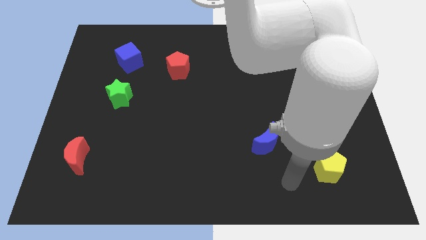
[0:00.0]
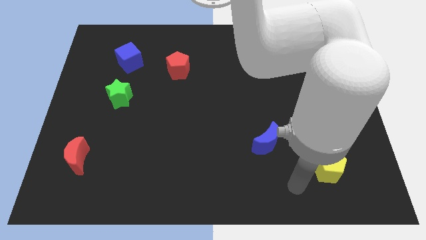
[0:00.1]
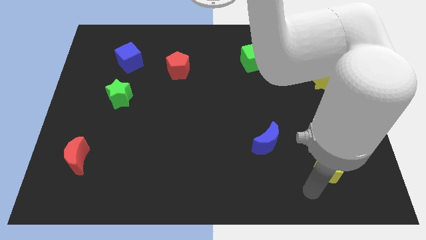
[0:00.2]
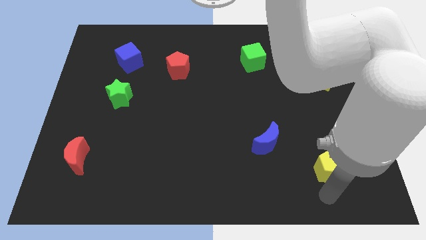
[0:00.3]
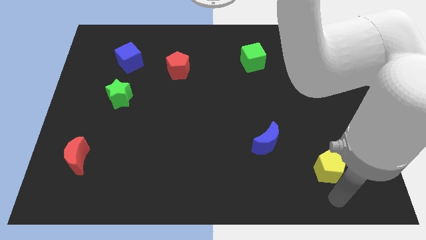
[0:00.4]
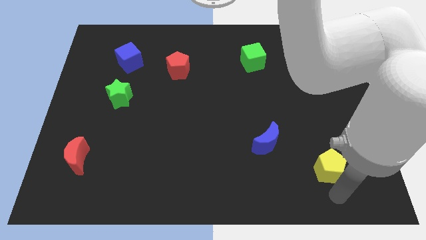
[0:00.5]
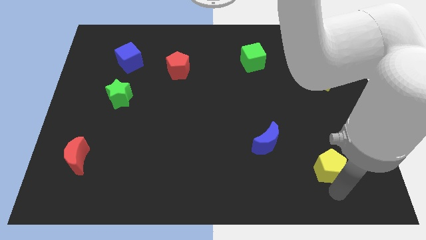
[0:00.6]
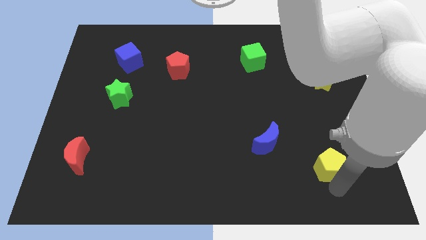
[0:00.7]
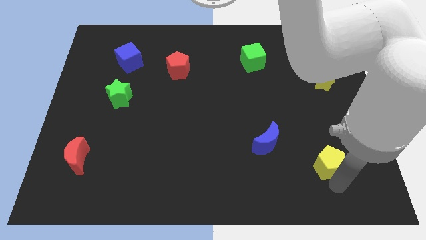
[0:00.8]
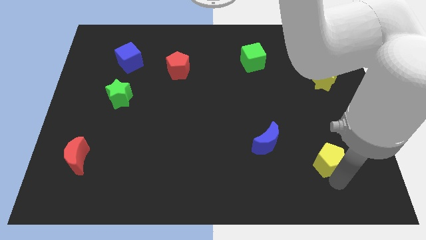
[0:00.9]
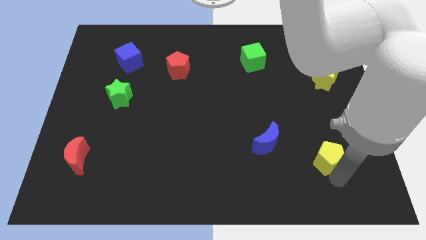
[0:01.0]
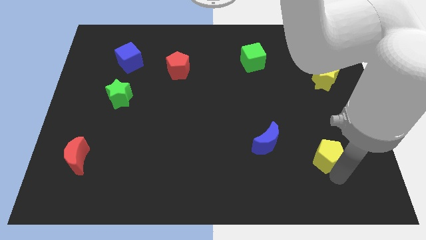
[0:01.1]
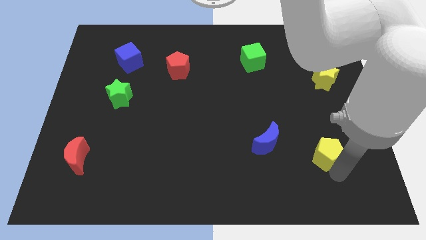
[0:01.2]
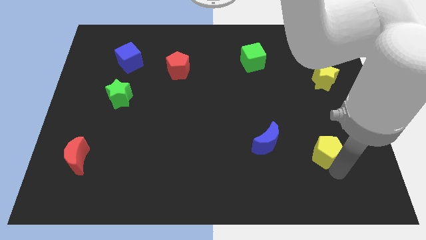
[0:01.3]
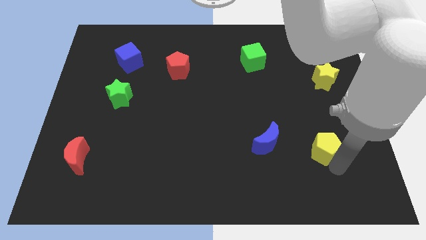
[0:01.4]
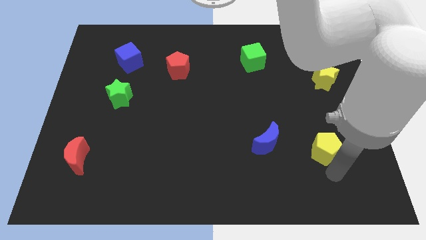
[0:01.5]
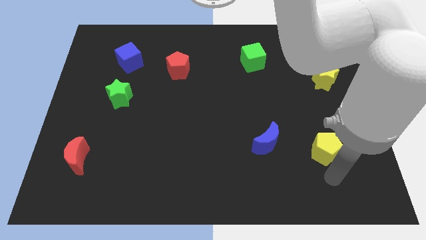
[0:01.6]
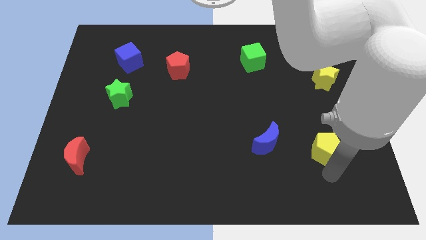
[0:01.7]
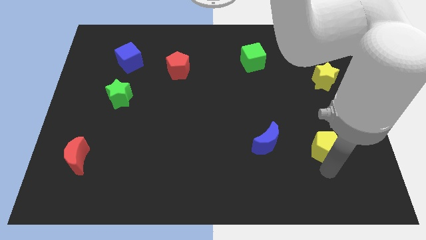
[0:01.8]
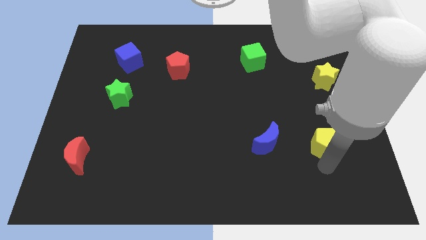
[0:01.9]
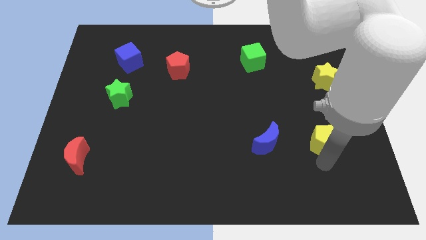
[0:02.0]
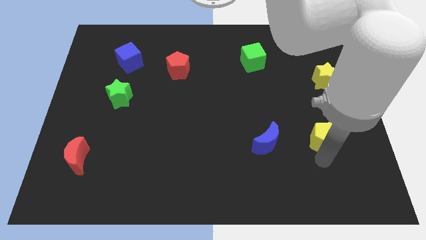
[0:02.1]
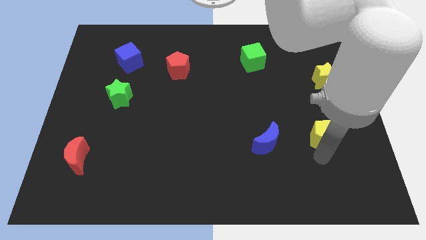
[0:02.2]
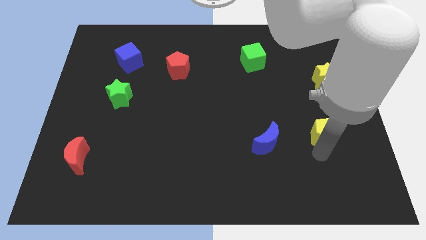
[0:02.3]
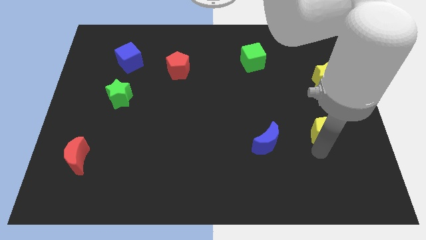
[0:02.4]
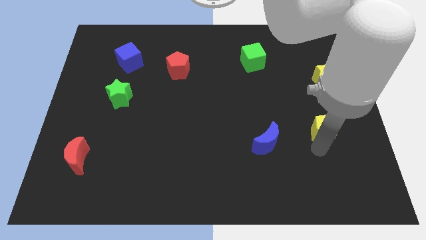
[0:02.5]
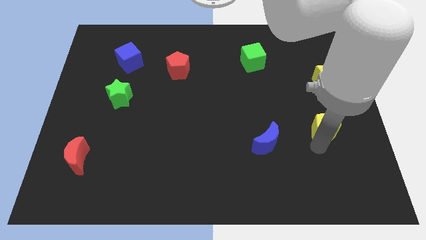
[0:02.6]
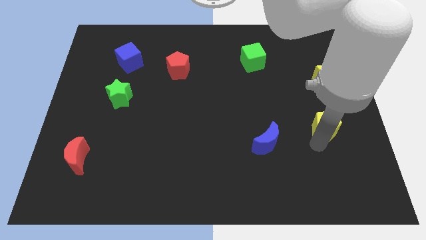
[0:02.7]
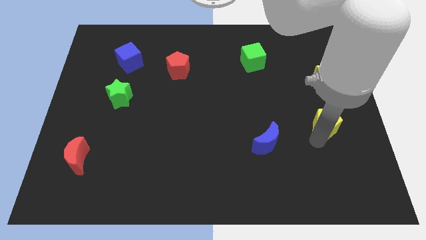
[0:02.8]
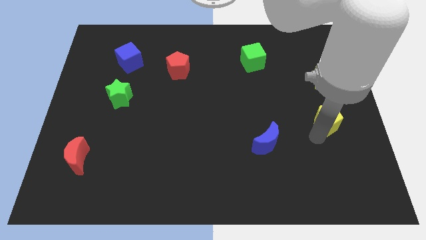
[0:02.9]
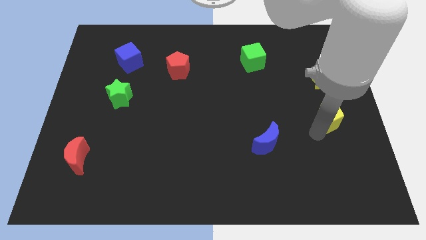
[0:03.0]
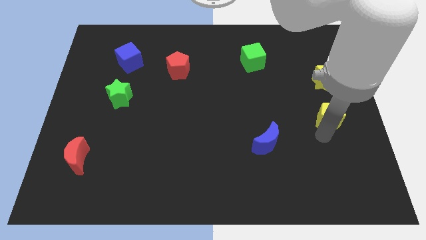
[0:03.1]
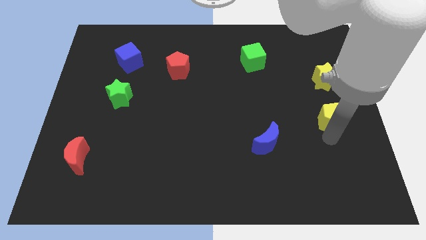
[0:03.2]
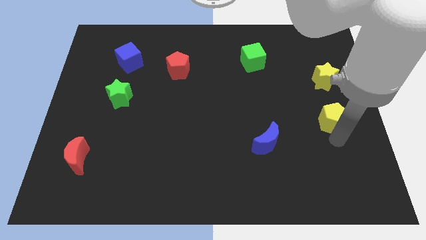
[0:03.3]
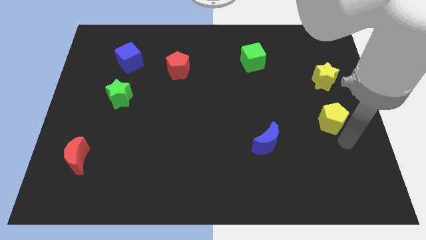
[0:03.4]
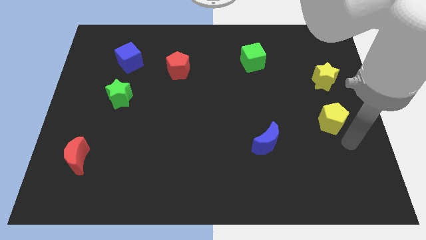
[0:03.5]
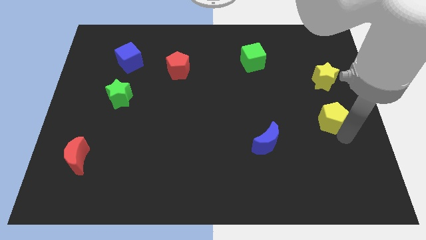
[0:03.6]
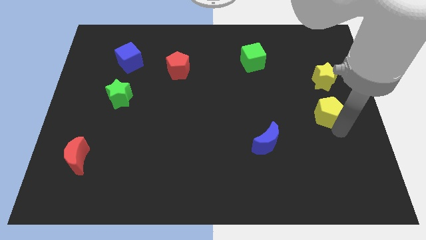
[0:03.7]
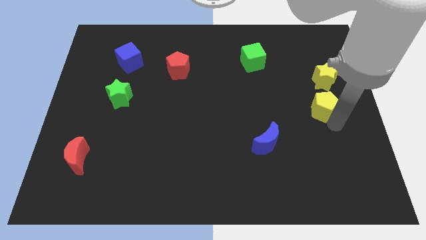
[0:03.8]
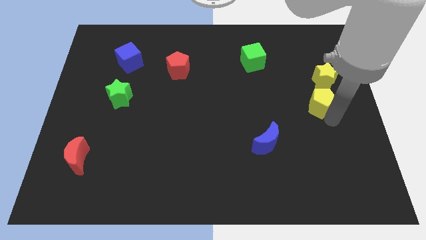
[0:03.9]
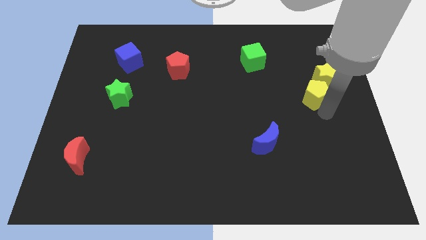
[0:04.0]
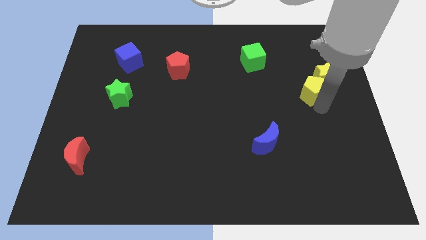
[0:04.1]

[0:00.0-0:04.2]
move the yellow pentagon up

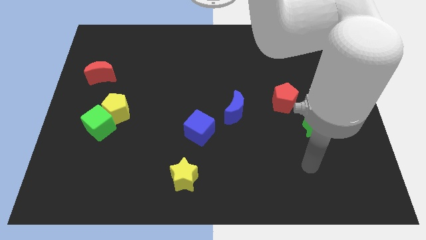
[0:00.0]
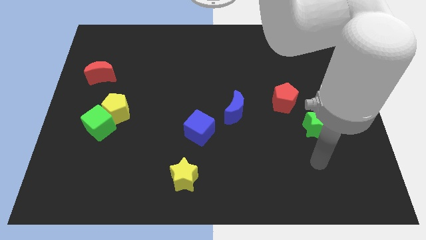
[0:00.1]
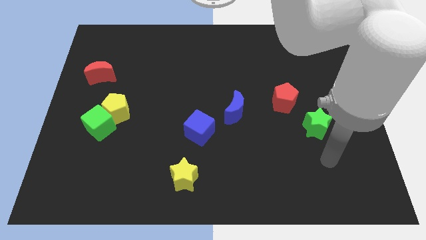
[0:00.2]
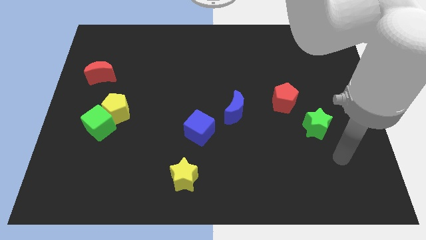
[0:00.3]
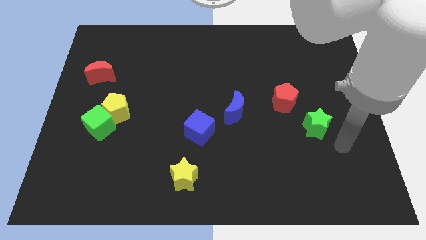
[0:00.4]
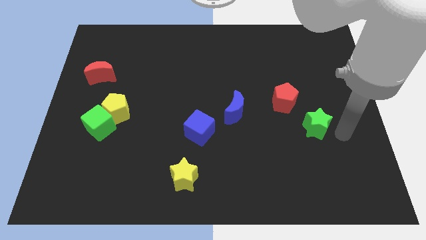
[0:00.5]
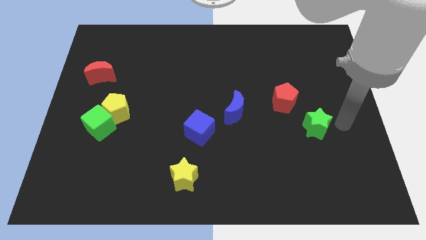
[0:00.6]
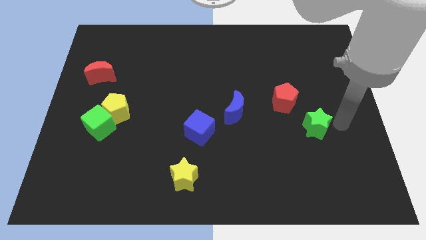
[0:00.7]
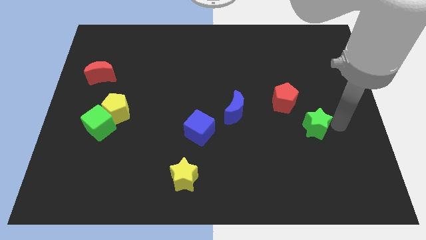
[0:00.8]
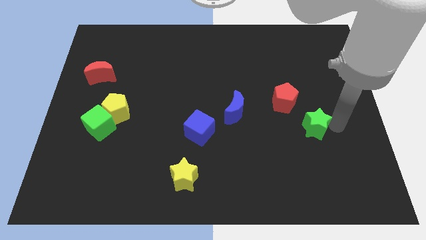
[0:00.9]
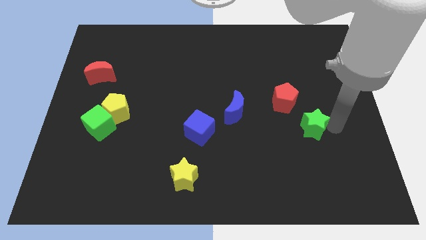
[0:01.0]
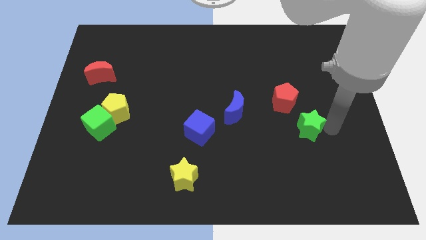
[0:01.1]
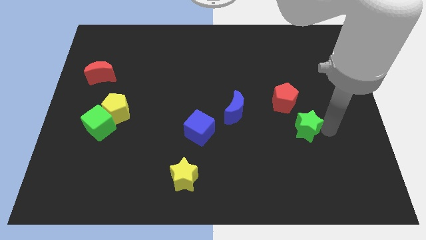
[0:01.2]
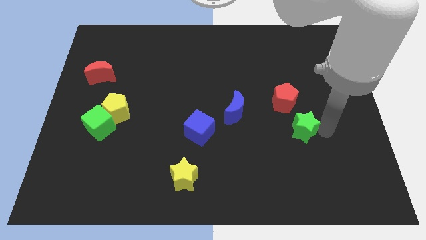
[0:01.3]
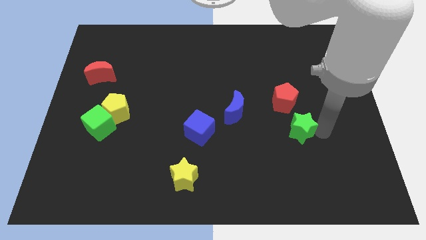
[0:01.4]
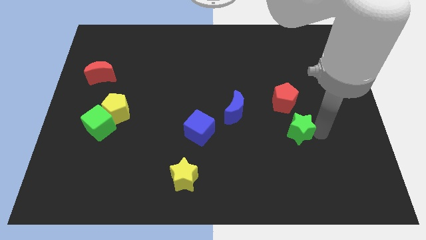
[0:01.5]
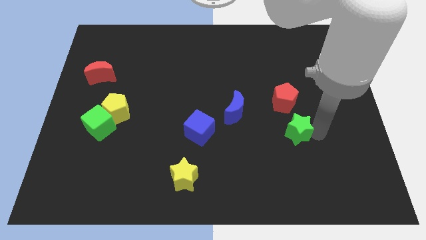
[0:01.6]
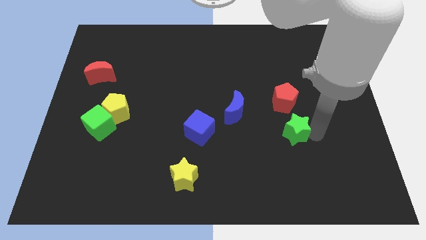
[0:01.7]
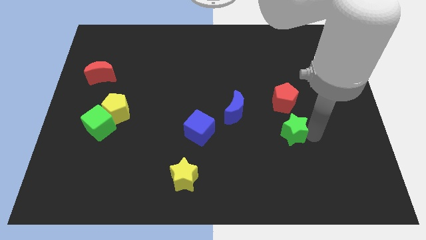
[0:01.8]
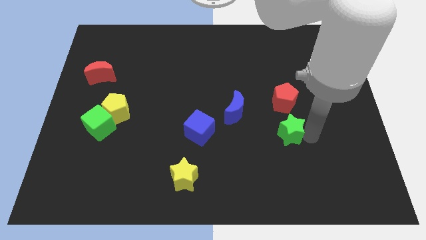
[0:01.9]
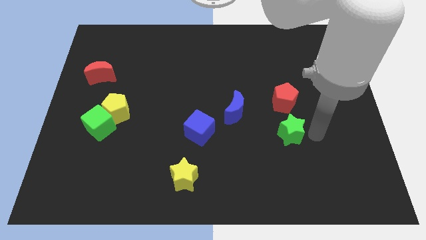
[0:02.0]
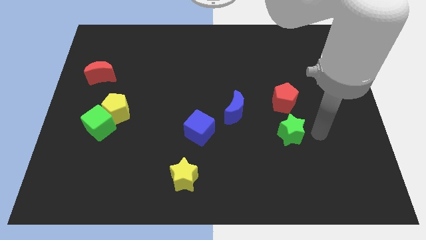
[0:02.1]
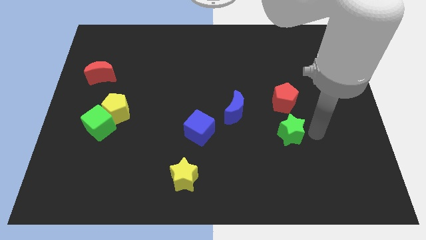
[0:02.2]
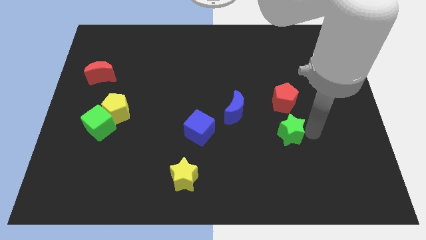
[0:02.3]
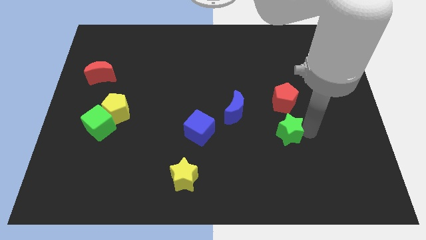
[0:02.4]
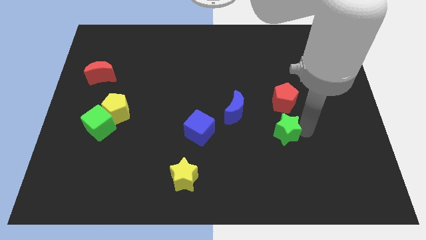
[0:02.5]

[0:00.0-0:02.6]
slightly slide the green star left

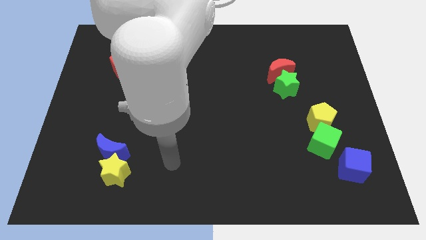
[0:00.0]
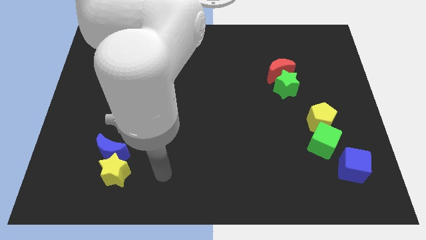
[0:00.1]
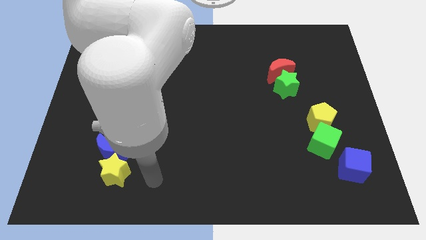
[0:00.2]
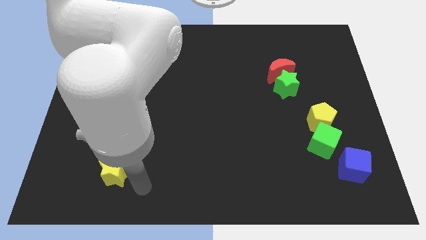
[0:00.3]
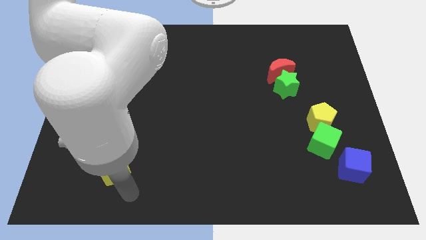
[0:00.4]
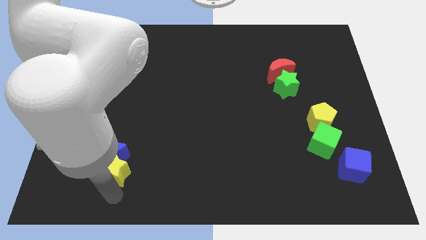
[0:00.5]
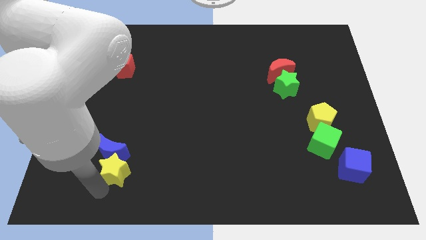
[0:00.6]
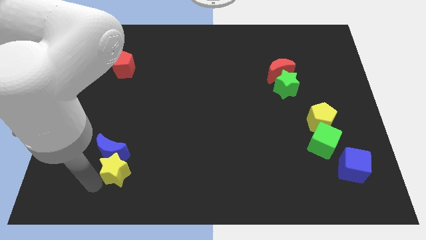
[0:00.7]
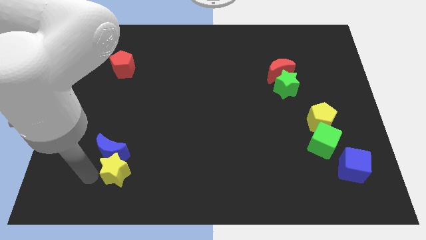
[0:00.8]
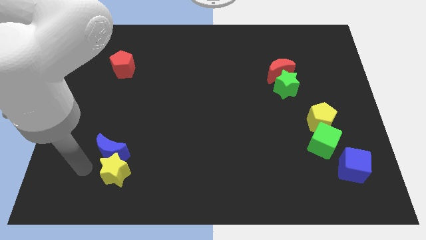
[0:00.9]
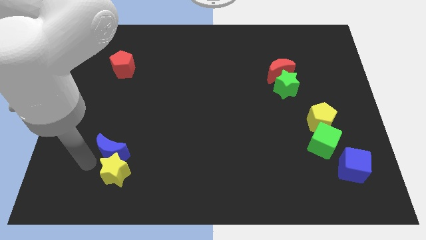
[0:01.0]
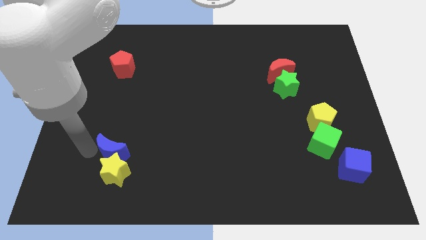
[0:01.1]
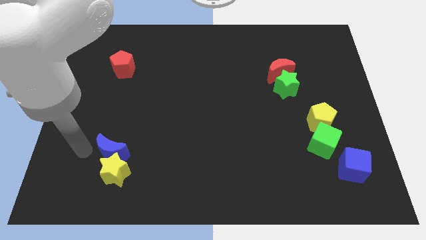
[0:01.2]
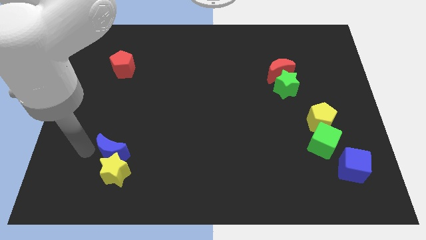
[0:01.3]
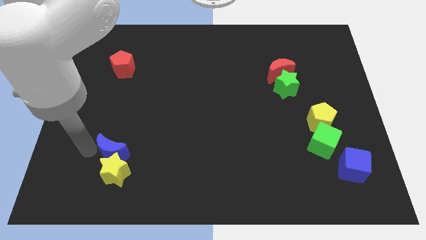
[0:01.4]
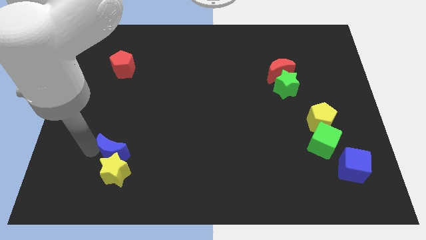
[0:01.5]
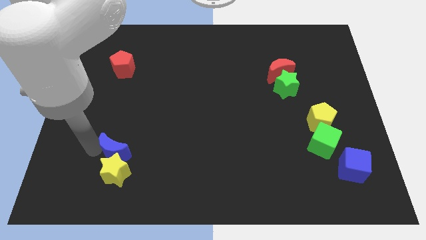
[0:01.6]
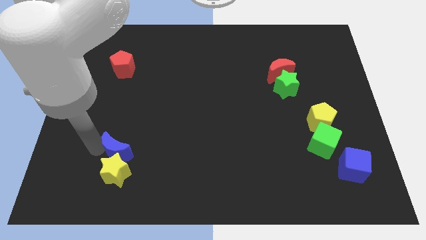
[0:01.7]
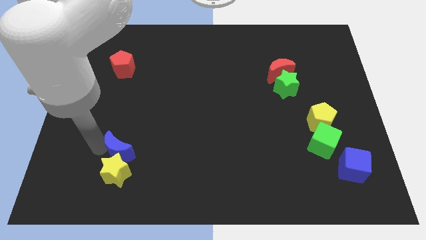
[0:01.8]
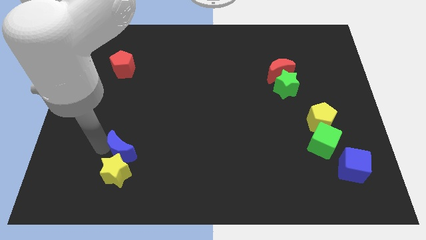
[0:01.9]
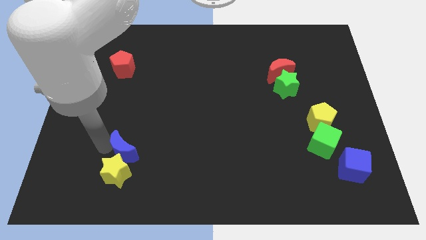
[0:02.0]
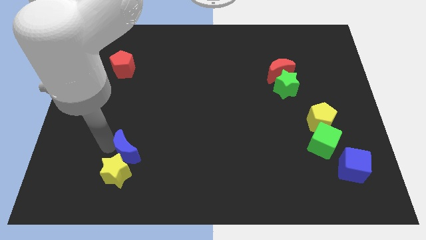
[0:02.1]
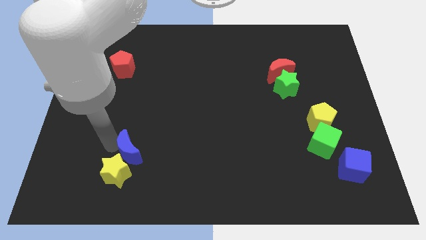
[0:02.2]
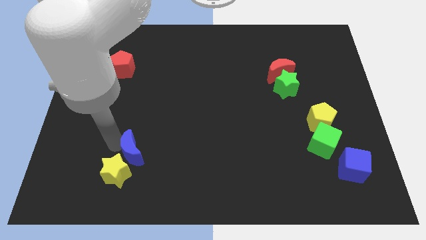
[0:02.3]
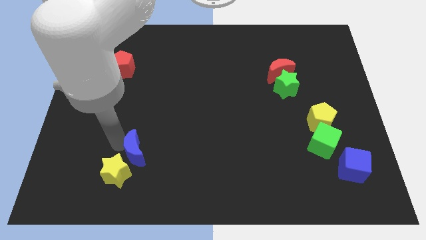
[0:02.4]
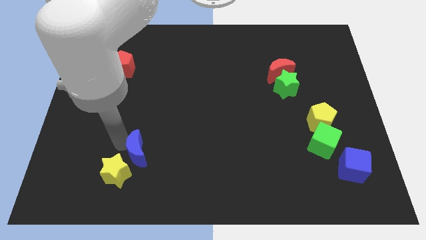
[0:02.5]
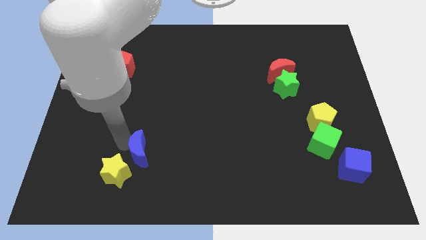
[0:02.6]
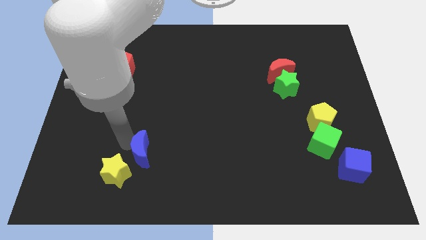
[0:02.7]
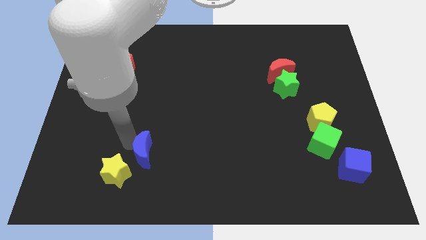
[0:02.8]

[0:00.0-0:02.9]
slightly slide the blue moon to the right
